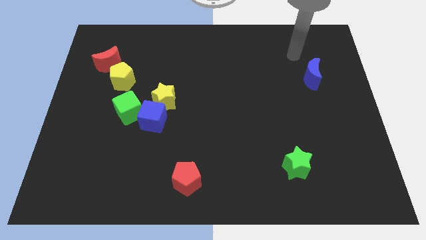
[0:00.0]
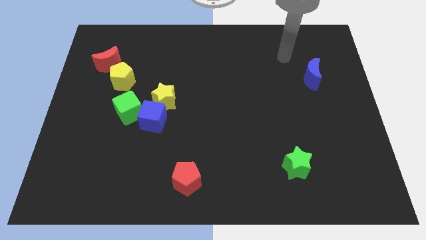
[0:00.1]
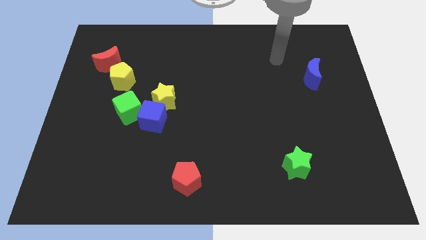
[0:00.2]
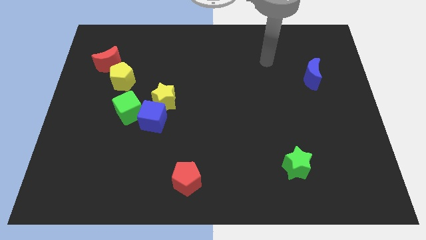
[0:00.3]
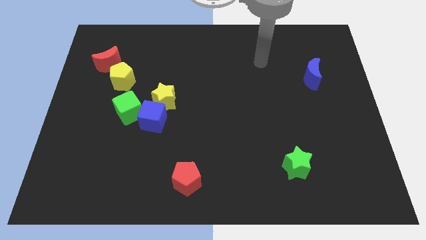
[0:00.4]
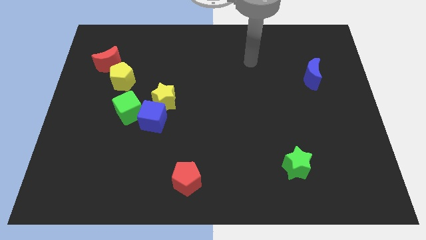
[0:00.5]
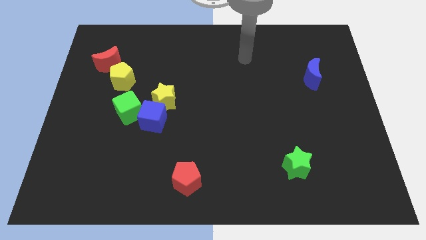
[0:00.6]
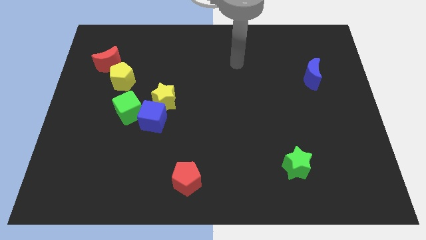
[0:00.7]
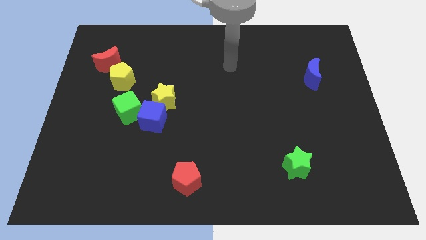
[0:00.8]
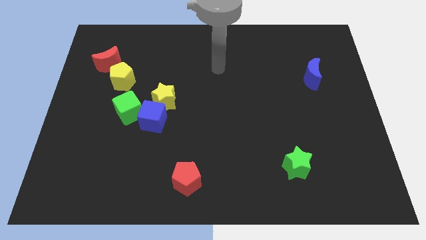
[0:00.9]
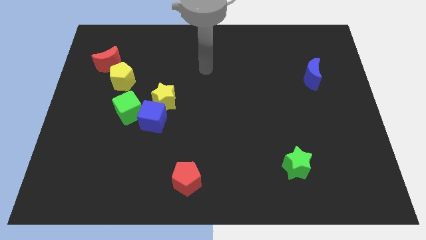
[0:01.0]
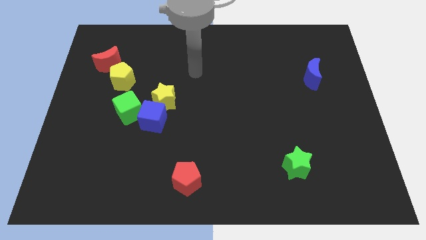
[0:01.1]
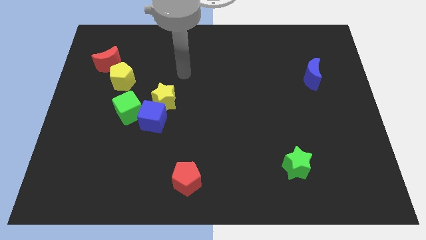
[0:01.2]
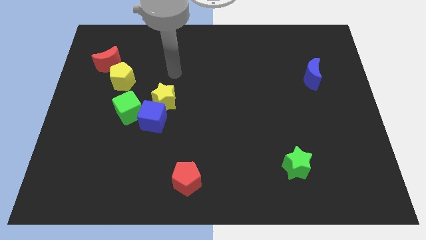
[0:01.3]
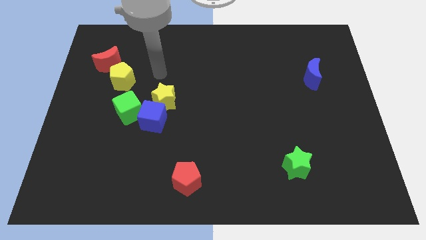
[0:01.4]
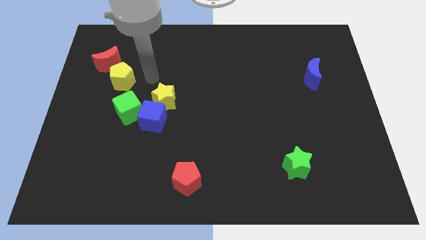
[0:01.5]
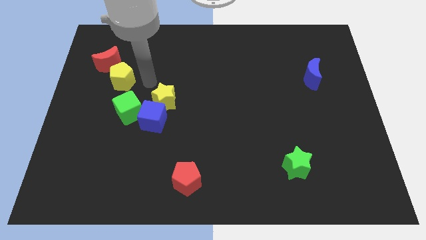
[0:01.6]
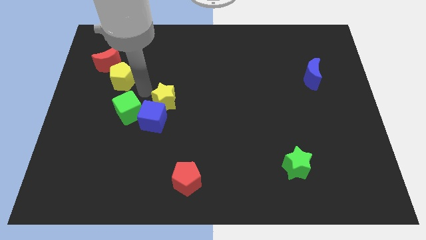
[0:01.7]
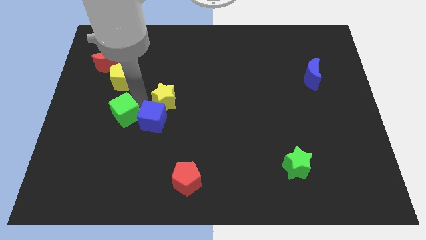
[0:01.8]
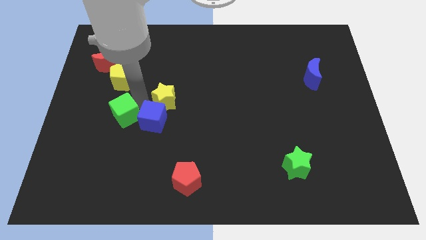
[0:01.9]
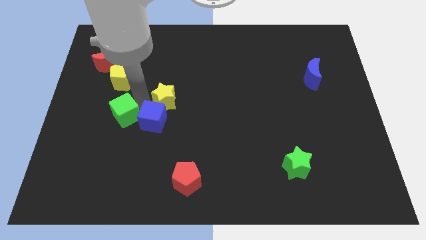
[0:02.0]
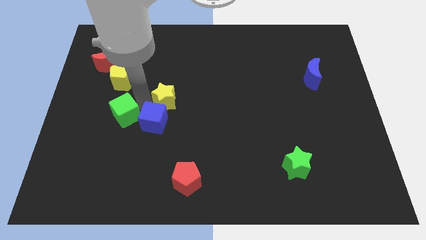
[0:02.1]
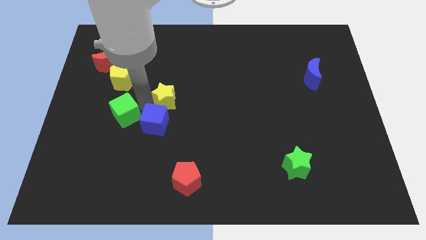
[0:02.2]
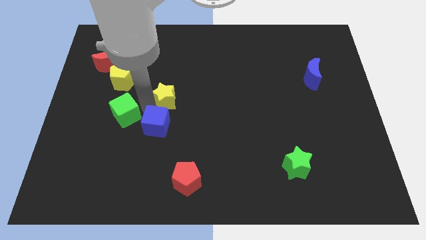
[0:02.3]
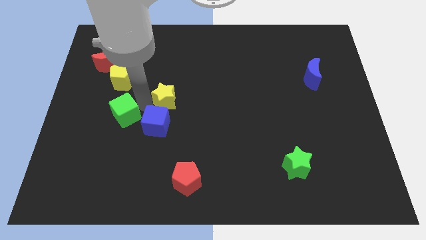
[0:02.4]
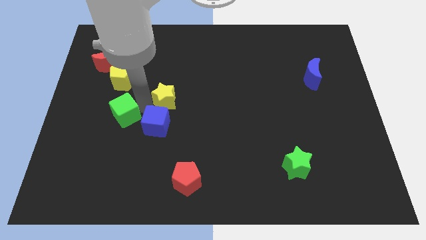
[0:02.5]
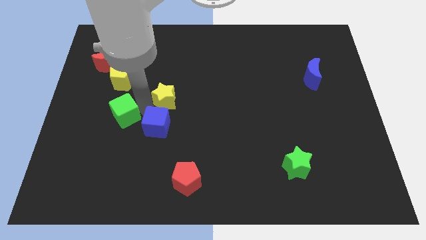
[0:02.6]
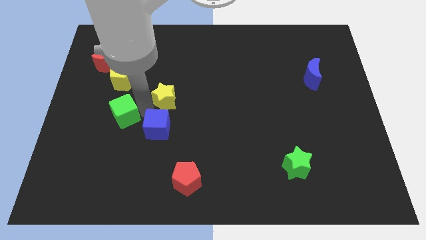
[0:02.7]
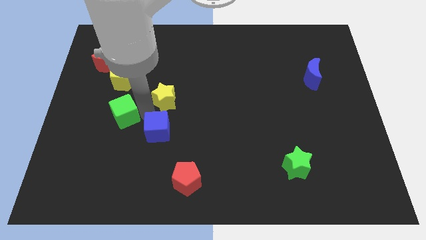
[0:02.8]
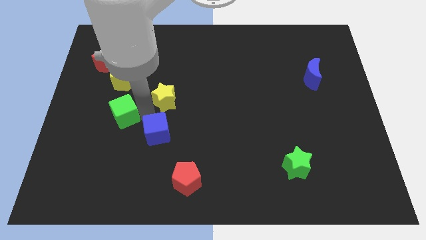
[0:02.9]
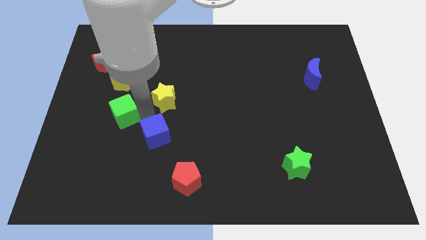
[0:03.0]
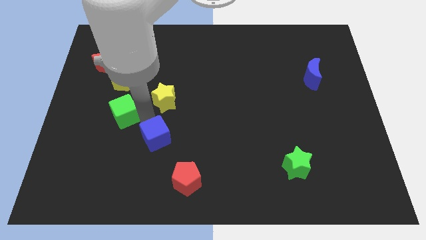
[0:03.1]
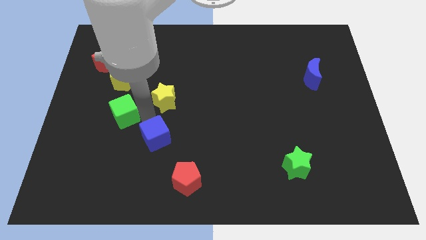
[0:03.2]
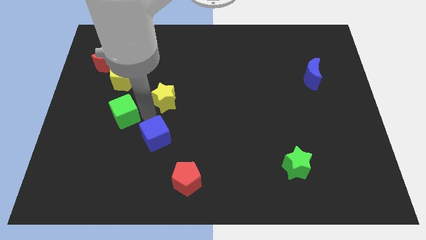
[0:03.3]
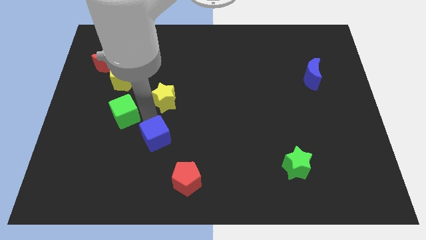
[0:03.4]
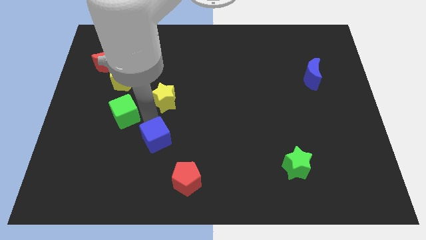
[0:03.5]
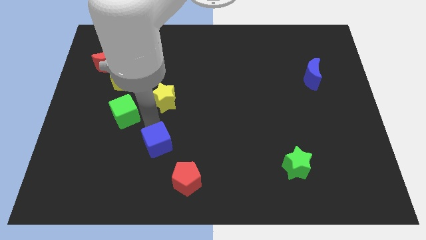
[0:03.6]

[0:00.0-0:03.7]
separate the blue cube from the yellow star and green cube

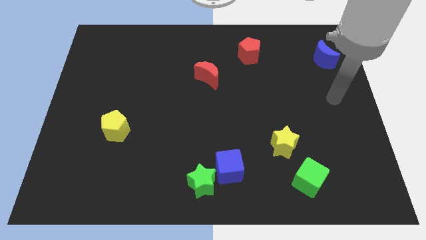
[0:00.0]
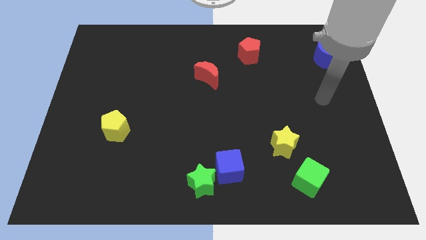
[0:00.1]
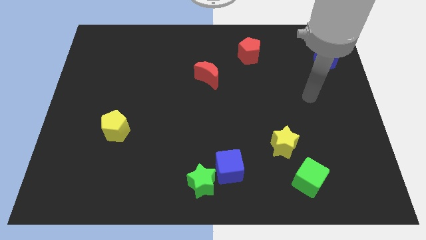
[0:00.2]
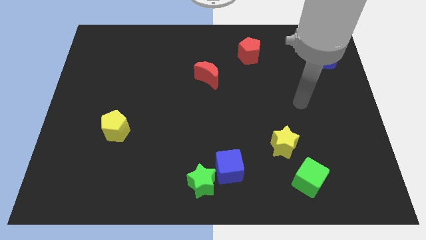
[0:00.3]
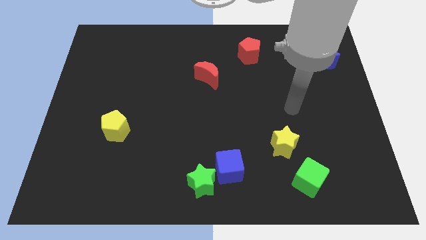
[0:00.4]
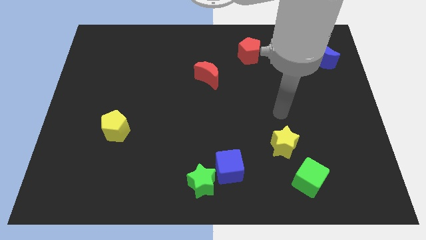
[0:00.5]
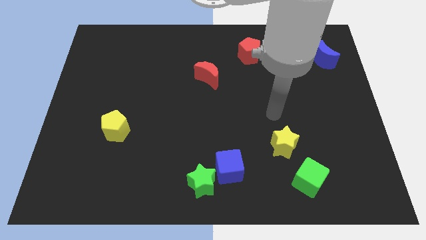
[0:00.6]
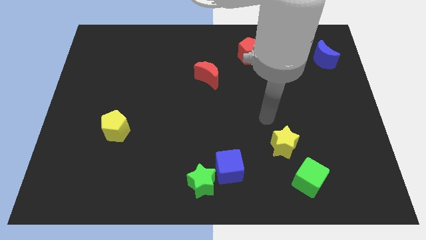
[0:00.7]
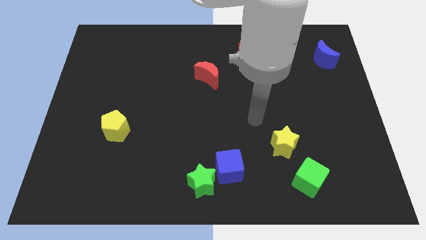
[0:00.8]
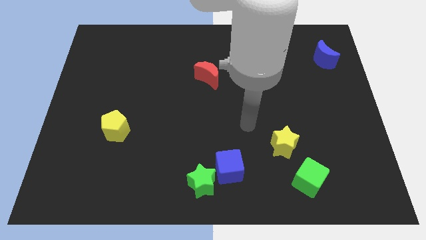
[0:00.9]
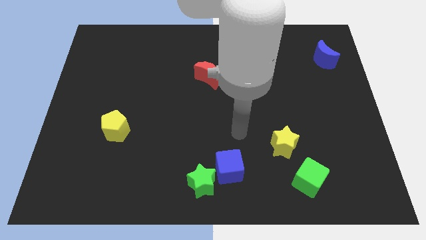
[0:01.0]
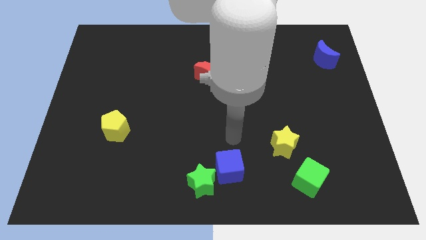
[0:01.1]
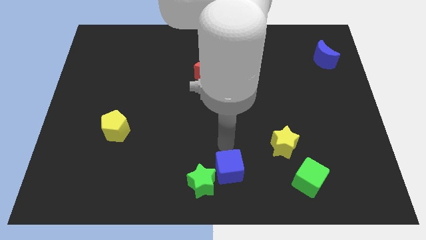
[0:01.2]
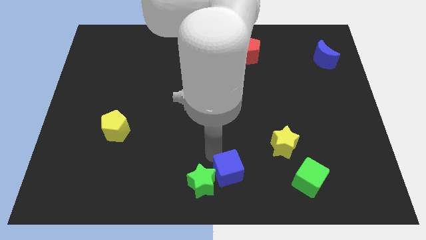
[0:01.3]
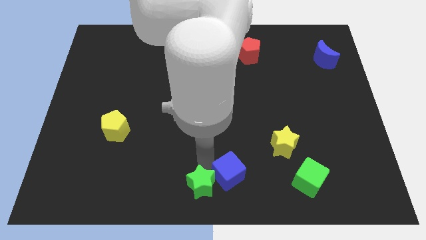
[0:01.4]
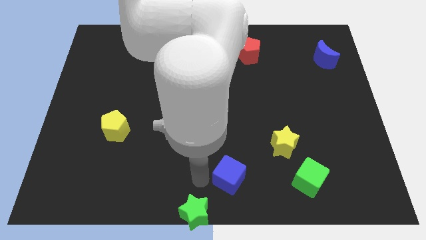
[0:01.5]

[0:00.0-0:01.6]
separate the blue cube from the green star

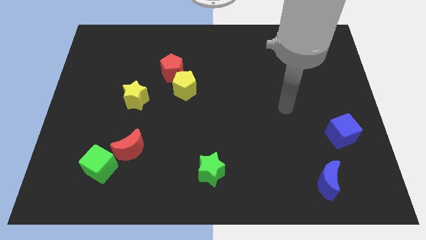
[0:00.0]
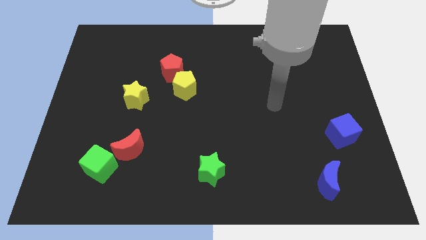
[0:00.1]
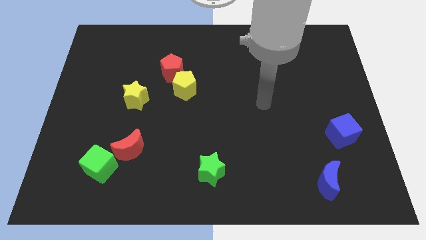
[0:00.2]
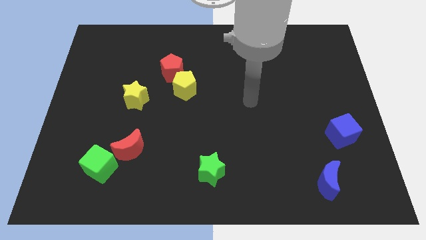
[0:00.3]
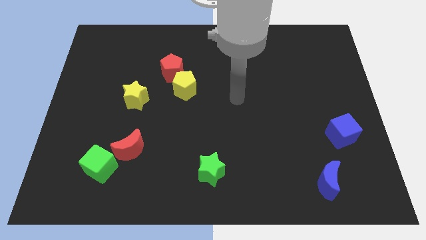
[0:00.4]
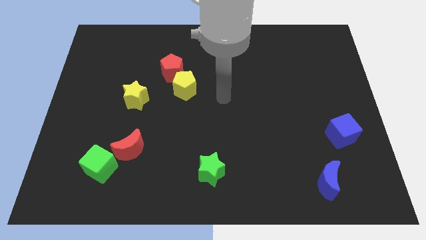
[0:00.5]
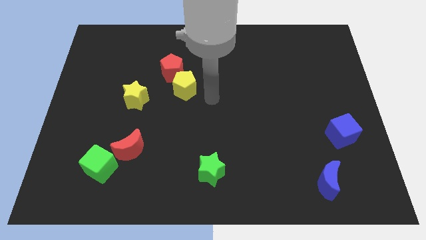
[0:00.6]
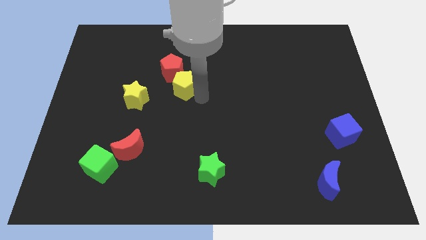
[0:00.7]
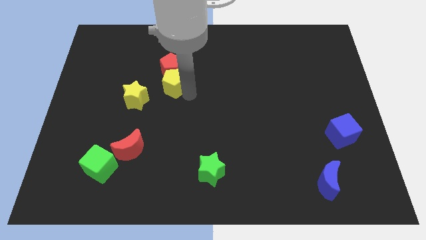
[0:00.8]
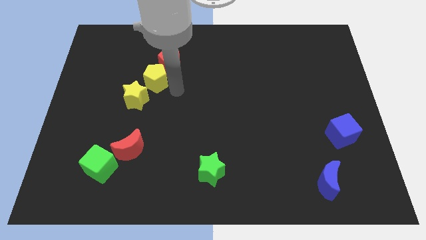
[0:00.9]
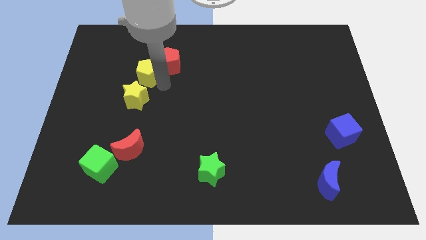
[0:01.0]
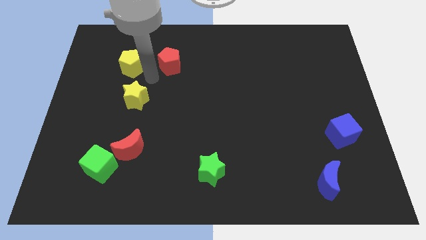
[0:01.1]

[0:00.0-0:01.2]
move the red pentagon away from the yellow pentagon

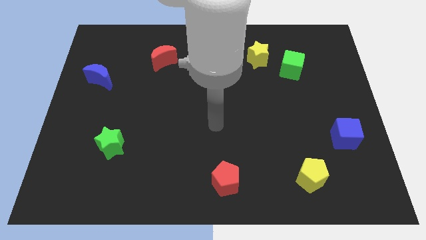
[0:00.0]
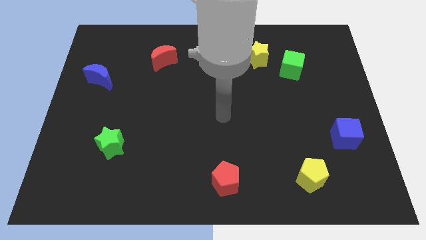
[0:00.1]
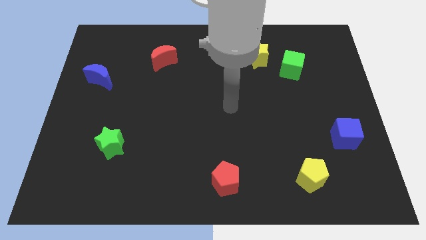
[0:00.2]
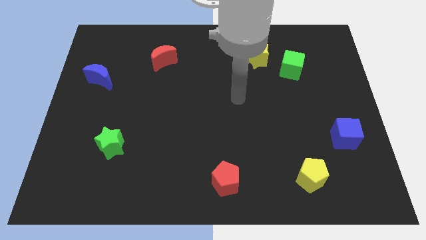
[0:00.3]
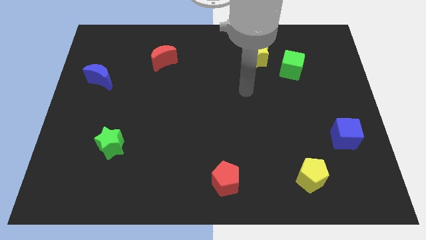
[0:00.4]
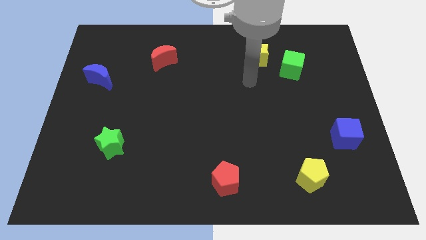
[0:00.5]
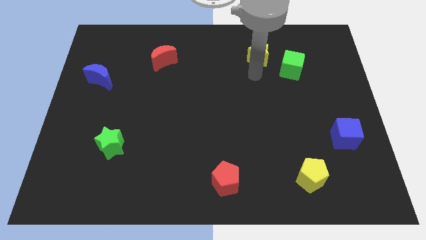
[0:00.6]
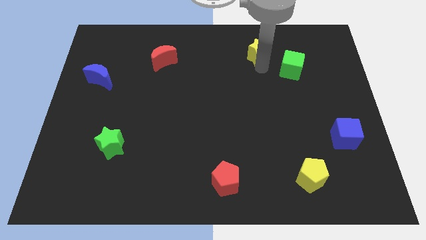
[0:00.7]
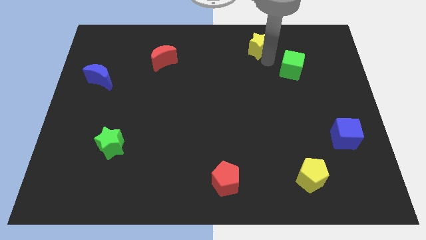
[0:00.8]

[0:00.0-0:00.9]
separate the green cube from the yellow star

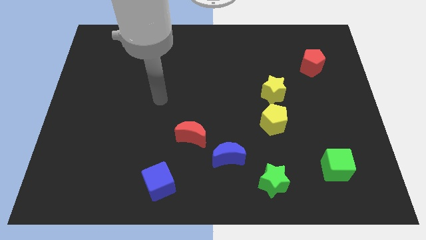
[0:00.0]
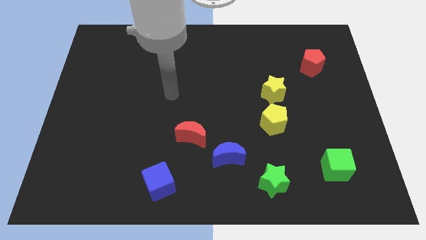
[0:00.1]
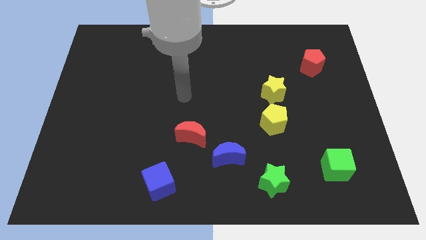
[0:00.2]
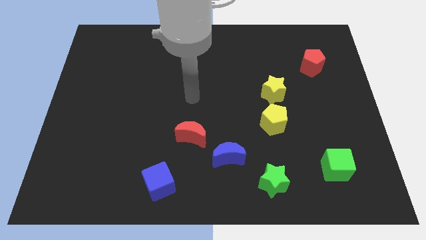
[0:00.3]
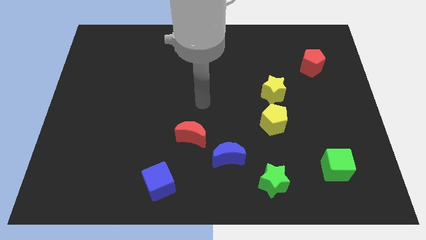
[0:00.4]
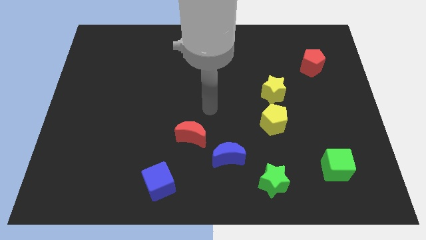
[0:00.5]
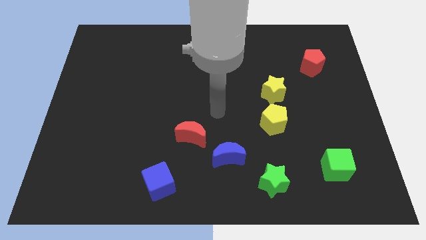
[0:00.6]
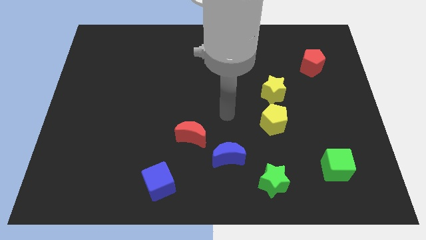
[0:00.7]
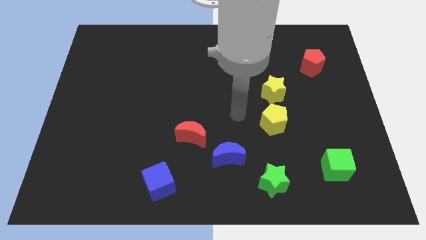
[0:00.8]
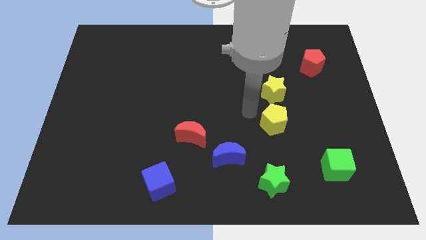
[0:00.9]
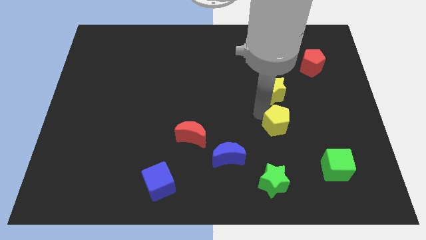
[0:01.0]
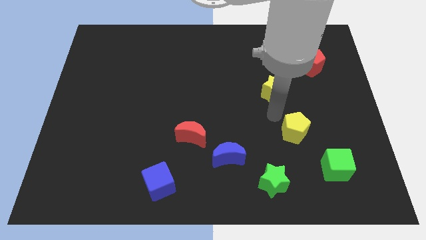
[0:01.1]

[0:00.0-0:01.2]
separate the yellow star from the yellow pentagon

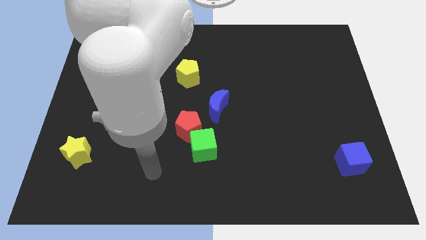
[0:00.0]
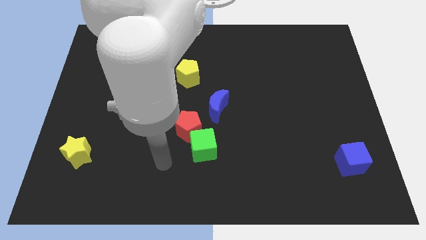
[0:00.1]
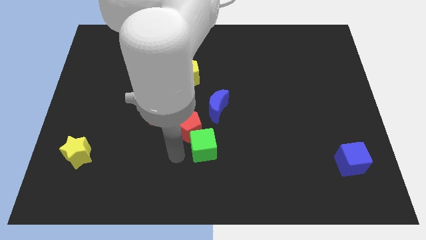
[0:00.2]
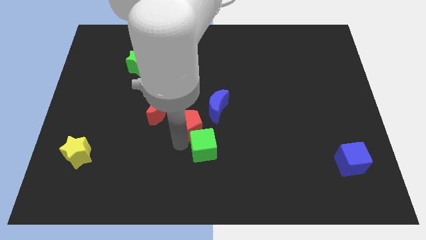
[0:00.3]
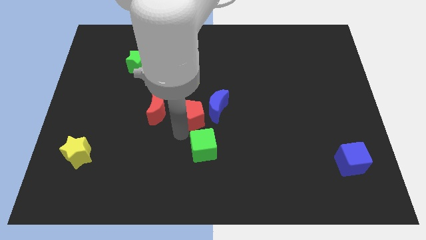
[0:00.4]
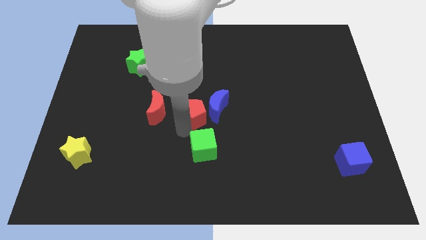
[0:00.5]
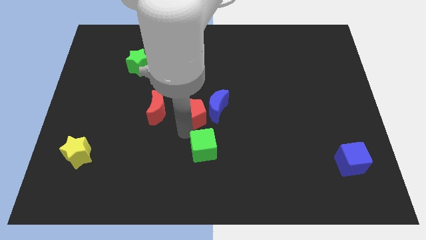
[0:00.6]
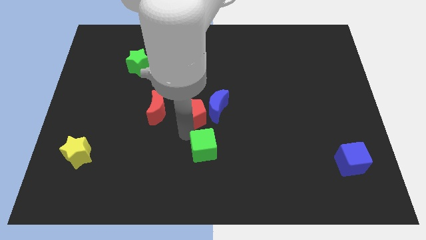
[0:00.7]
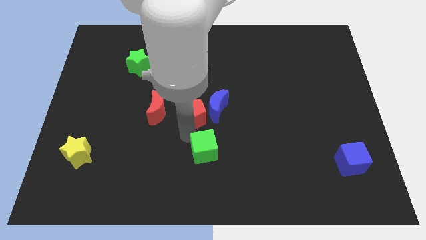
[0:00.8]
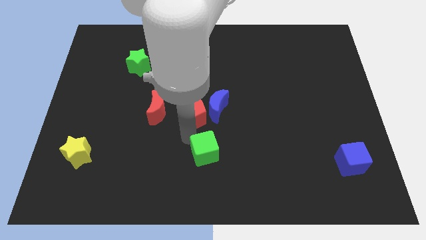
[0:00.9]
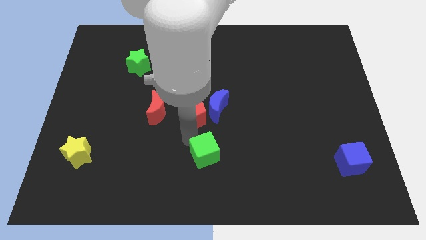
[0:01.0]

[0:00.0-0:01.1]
move the green cube away from the red pentagon
